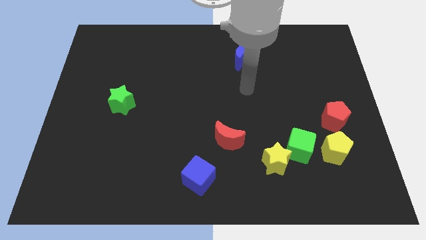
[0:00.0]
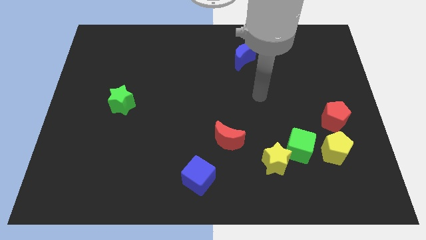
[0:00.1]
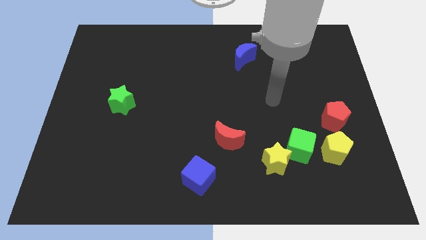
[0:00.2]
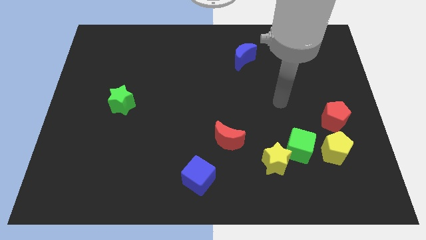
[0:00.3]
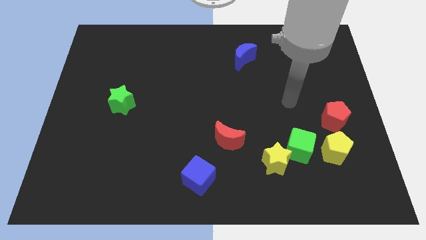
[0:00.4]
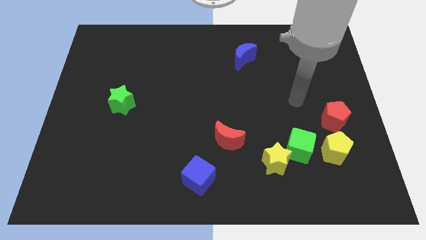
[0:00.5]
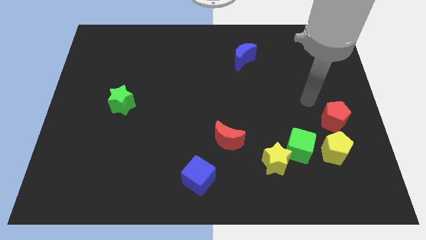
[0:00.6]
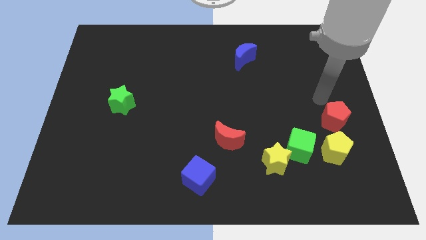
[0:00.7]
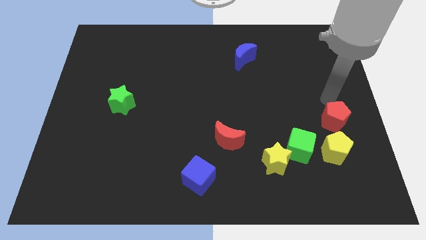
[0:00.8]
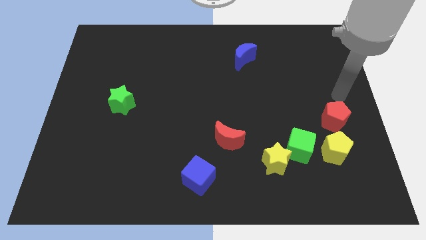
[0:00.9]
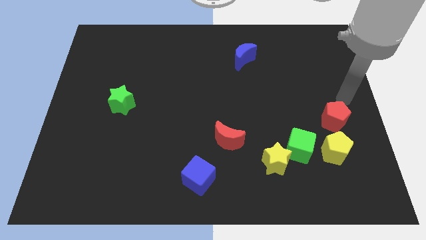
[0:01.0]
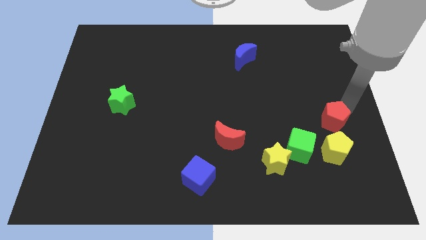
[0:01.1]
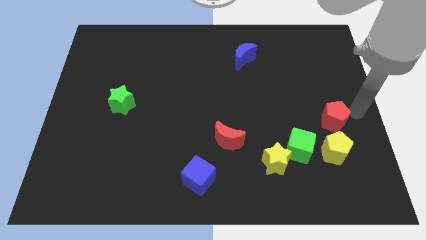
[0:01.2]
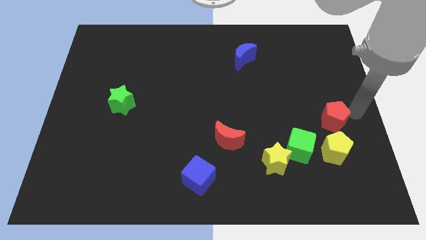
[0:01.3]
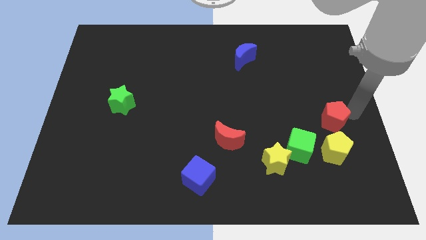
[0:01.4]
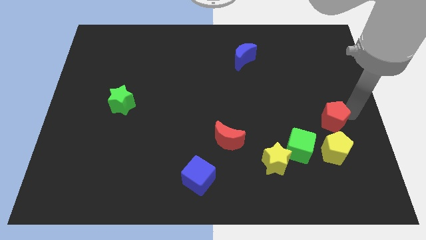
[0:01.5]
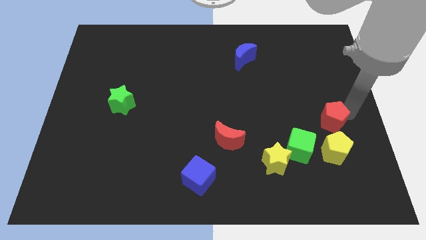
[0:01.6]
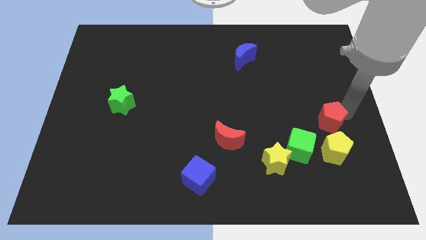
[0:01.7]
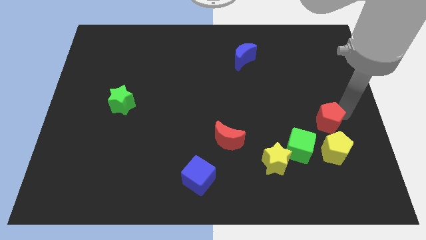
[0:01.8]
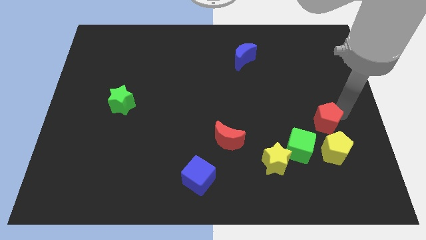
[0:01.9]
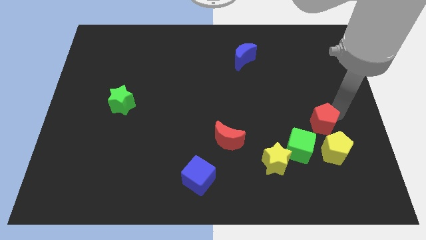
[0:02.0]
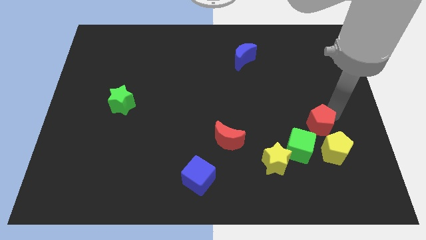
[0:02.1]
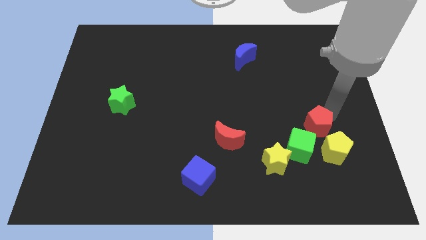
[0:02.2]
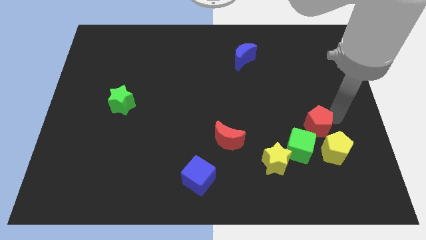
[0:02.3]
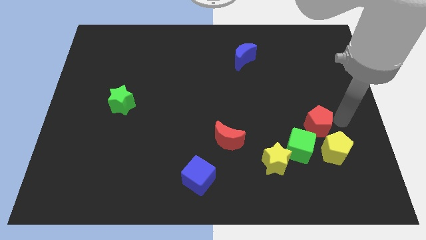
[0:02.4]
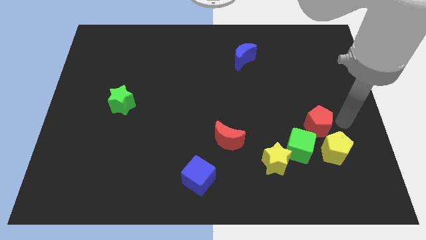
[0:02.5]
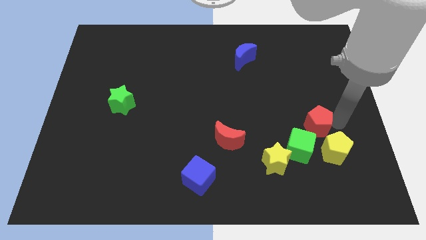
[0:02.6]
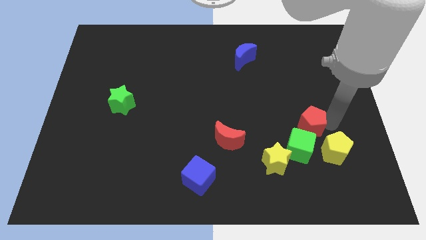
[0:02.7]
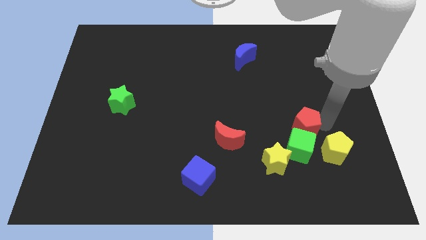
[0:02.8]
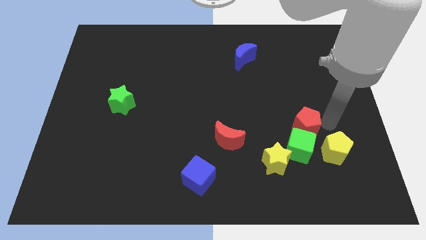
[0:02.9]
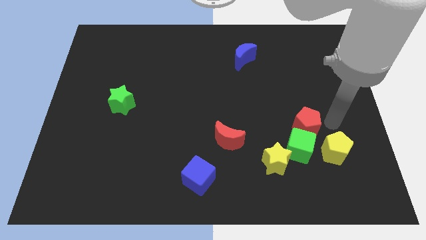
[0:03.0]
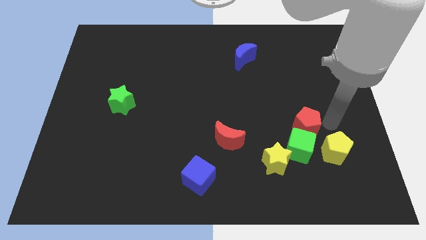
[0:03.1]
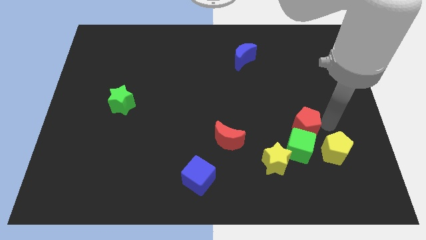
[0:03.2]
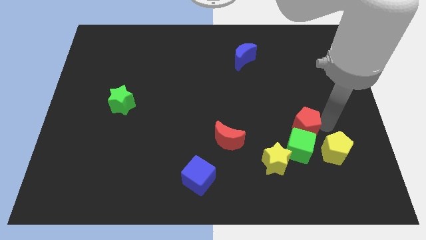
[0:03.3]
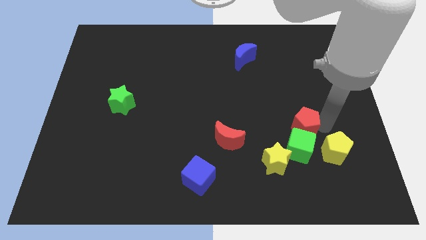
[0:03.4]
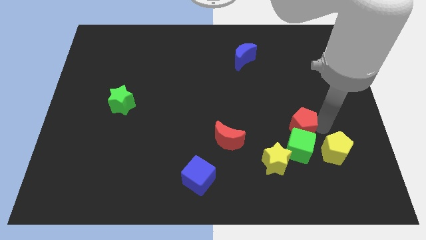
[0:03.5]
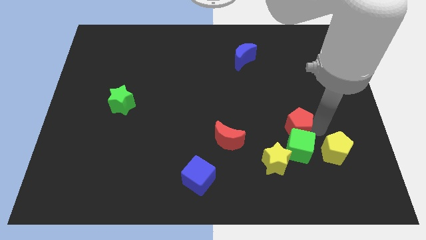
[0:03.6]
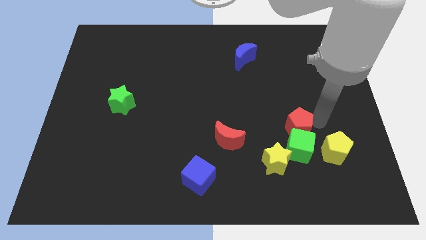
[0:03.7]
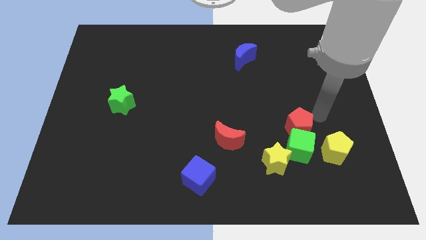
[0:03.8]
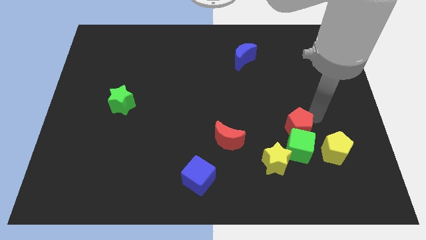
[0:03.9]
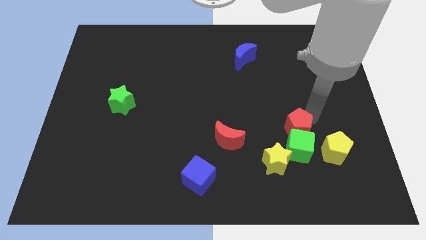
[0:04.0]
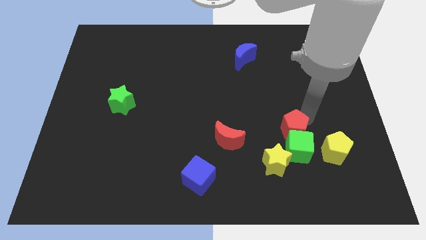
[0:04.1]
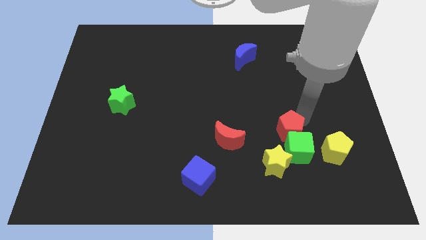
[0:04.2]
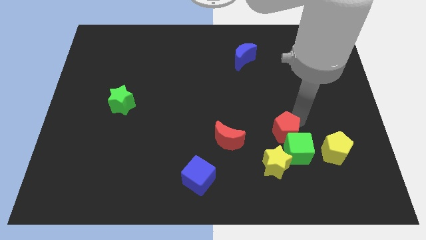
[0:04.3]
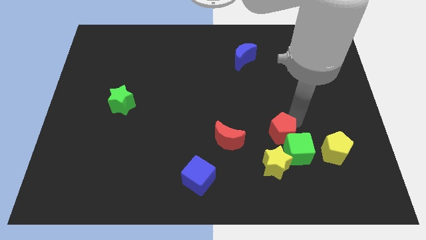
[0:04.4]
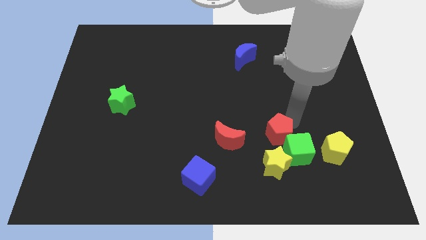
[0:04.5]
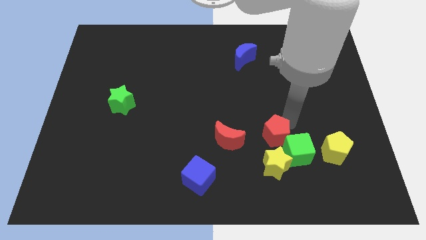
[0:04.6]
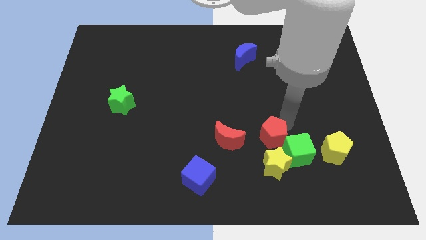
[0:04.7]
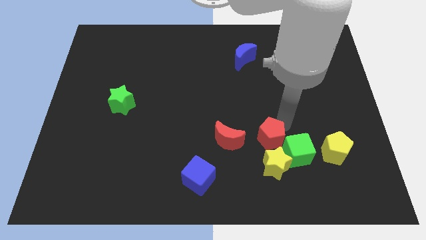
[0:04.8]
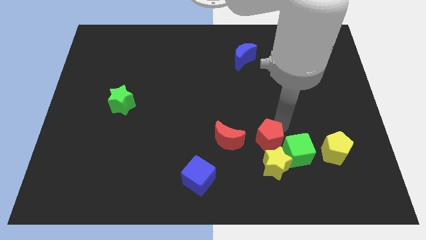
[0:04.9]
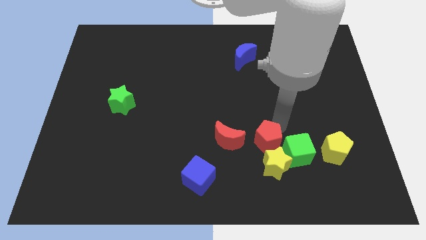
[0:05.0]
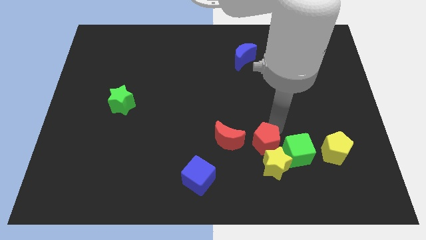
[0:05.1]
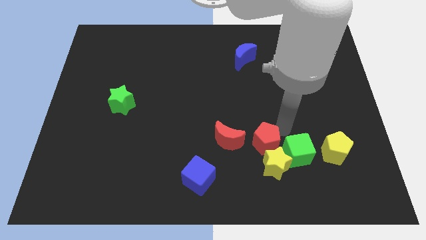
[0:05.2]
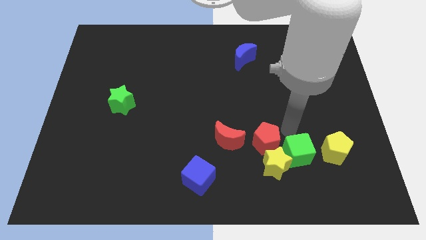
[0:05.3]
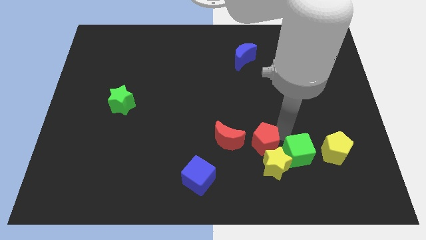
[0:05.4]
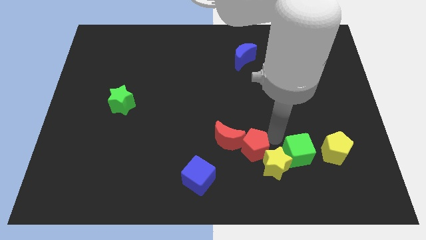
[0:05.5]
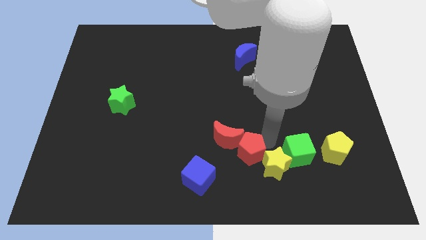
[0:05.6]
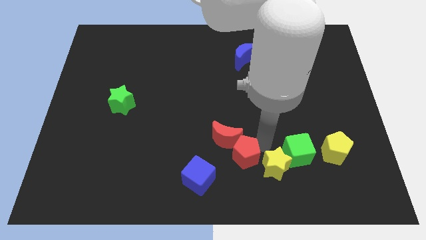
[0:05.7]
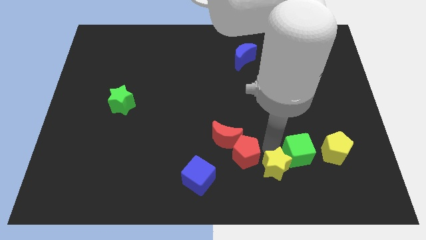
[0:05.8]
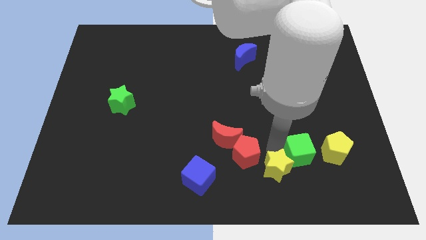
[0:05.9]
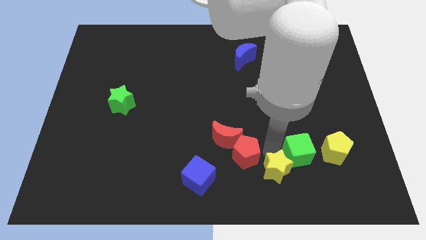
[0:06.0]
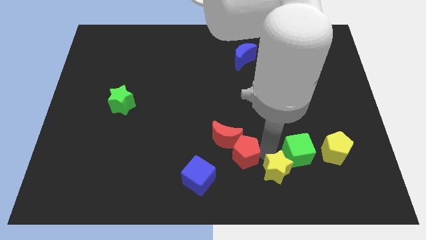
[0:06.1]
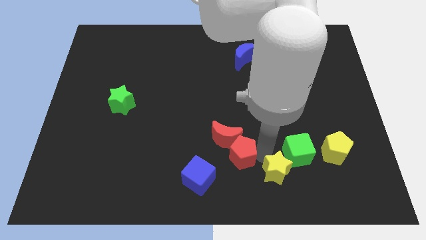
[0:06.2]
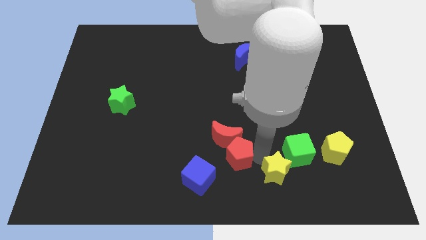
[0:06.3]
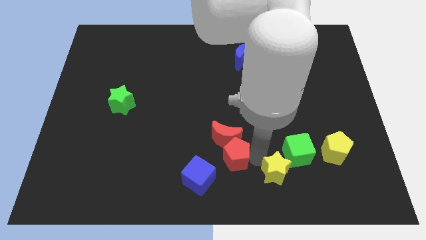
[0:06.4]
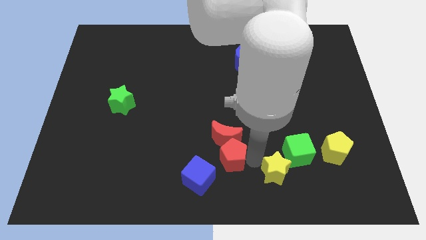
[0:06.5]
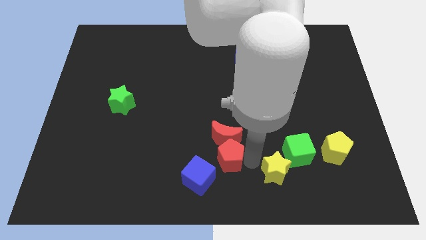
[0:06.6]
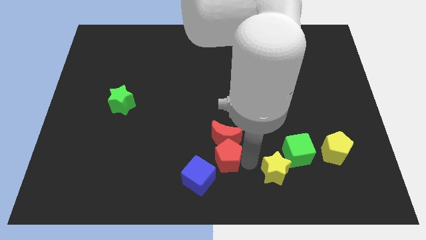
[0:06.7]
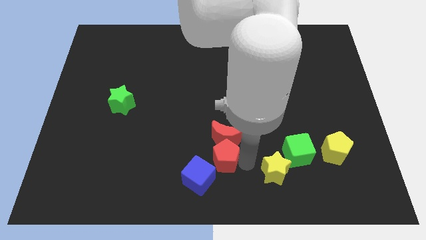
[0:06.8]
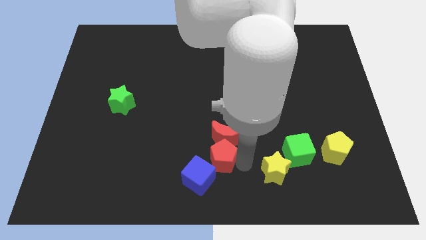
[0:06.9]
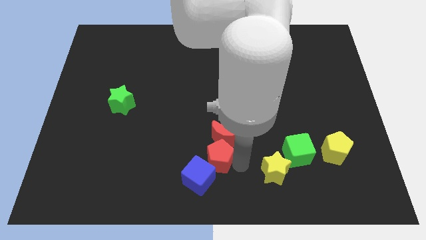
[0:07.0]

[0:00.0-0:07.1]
slide the red pentagon close to the blue cube
